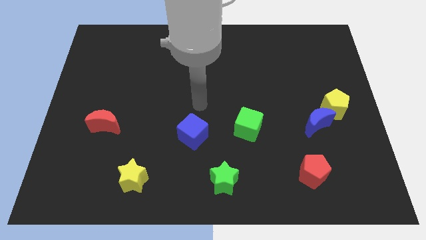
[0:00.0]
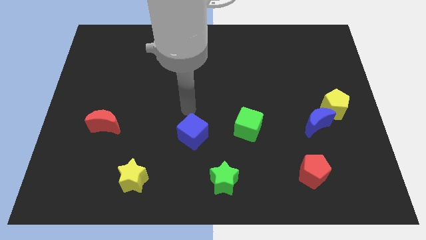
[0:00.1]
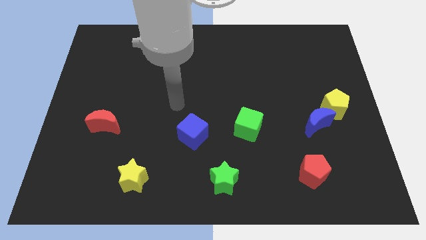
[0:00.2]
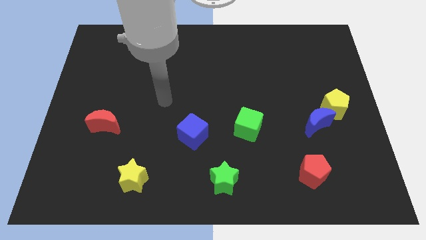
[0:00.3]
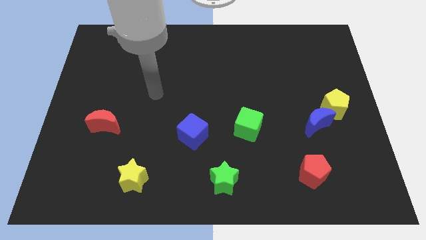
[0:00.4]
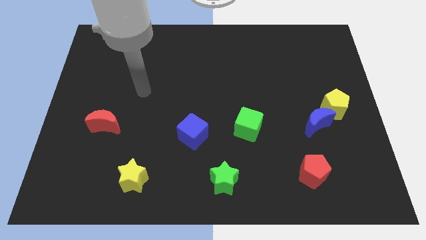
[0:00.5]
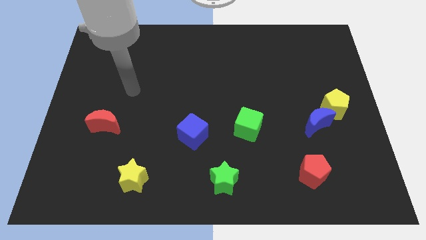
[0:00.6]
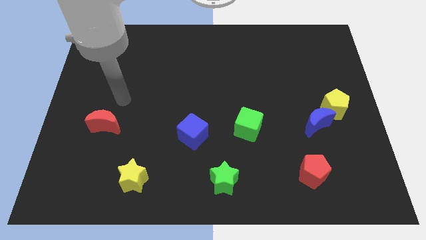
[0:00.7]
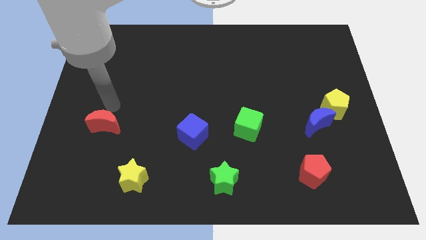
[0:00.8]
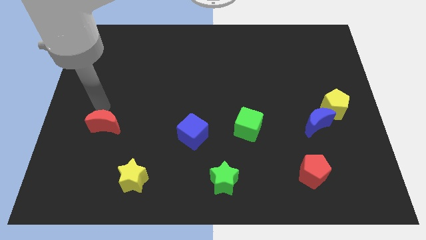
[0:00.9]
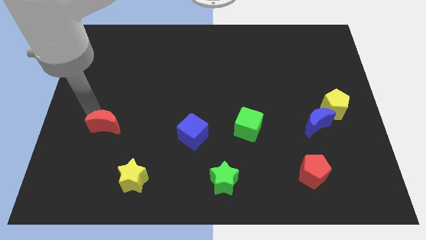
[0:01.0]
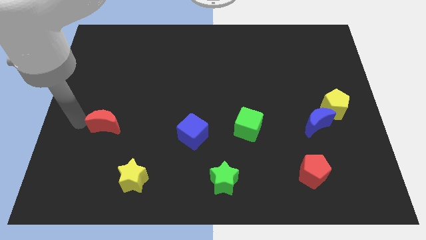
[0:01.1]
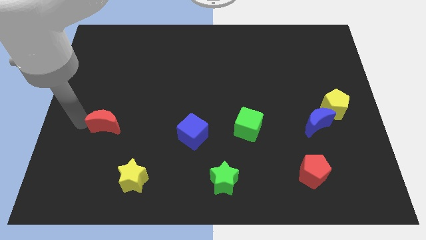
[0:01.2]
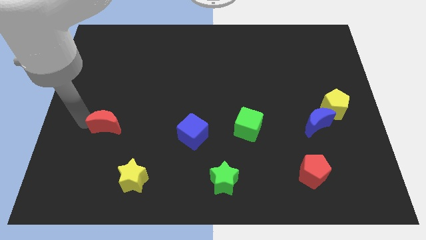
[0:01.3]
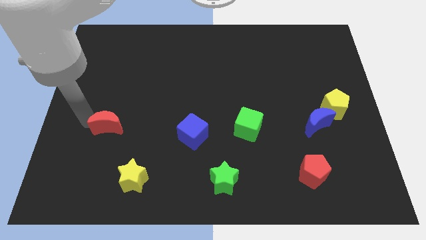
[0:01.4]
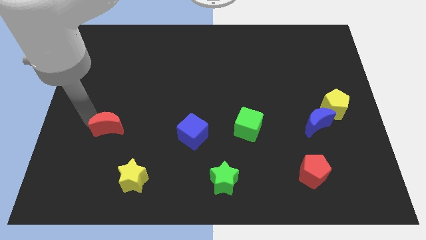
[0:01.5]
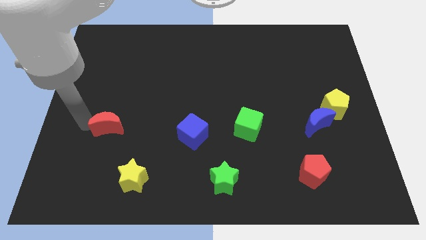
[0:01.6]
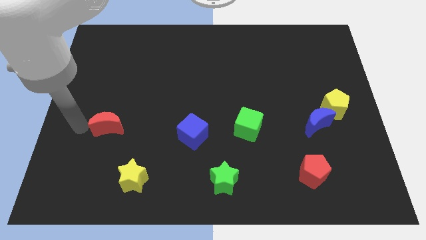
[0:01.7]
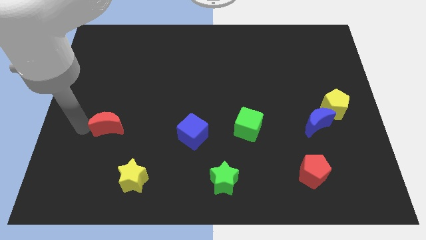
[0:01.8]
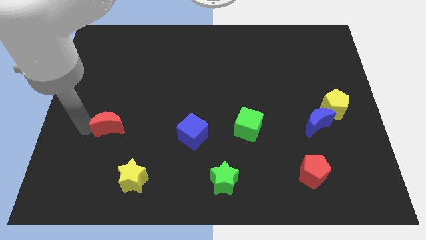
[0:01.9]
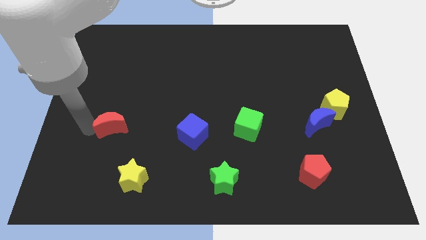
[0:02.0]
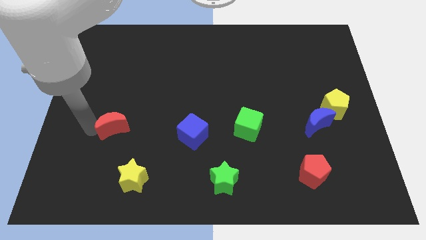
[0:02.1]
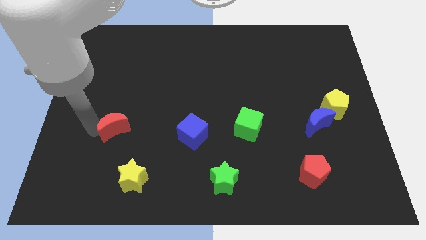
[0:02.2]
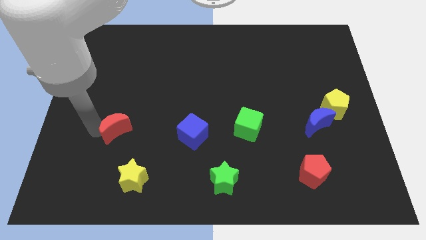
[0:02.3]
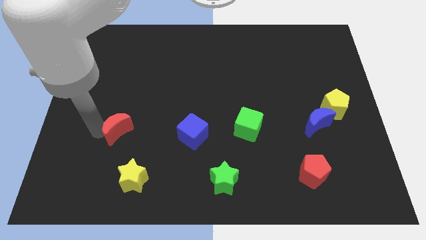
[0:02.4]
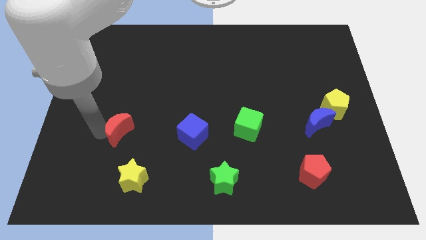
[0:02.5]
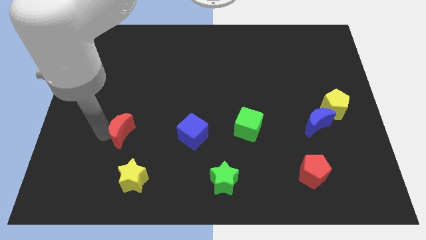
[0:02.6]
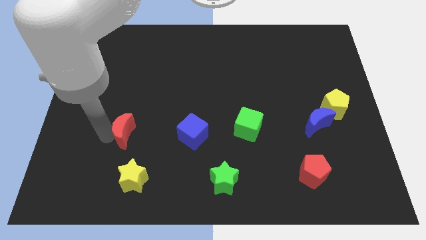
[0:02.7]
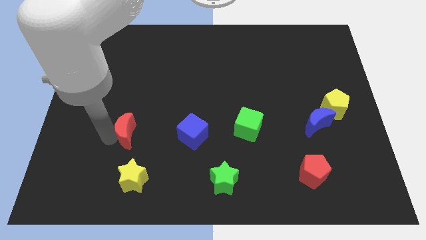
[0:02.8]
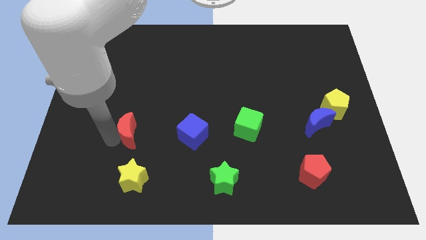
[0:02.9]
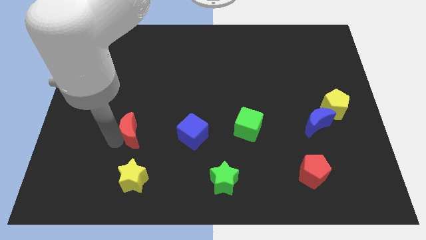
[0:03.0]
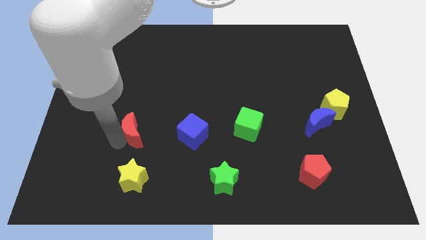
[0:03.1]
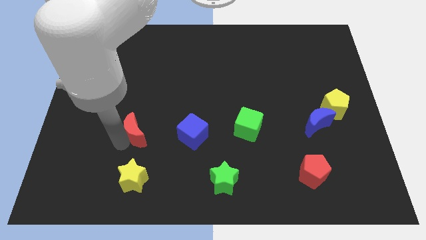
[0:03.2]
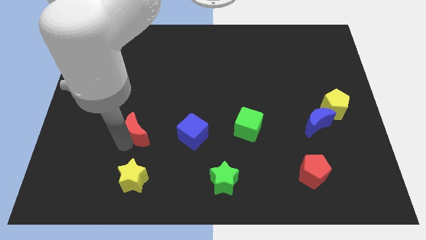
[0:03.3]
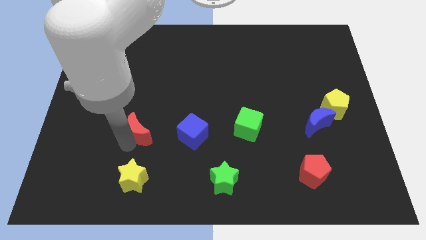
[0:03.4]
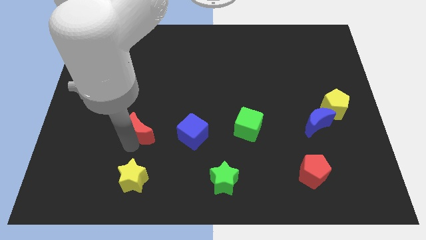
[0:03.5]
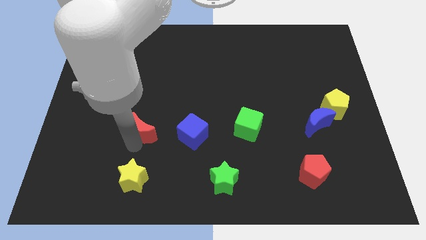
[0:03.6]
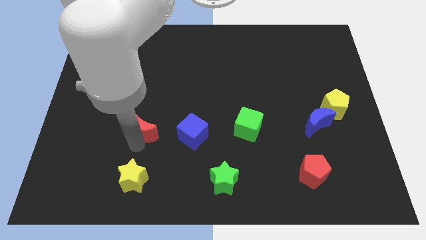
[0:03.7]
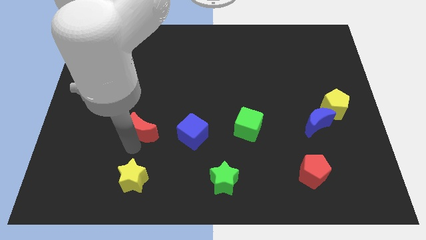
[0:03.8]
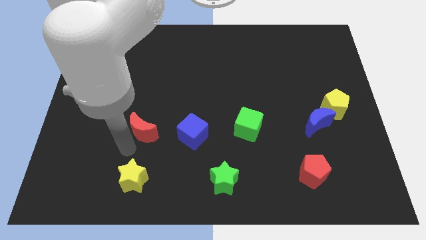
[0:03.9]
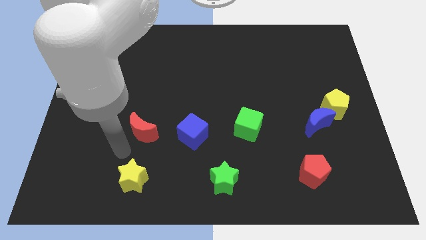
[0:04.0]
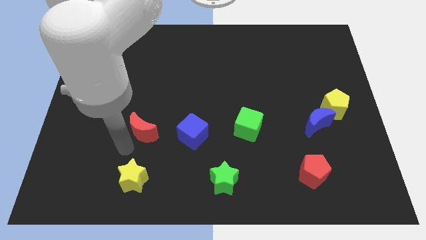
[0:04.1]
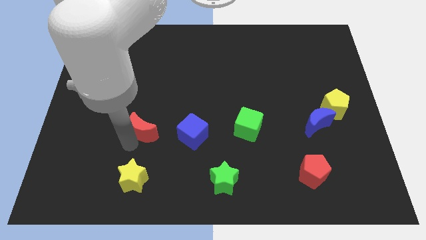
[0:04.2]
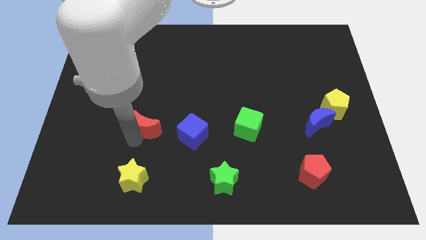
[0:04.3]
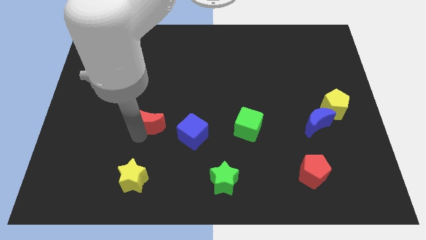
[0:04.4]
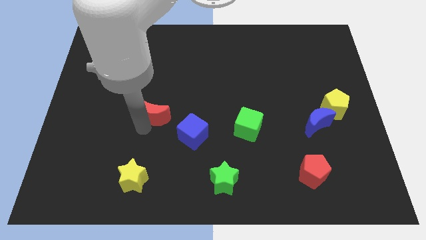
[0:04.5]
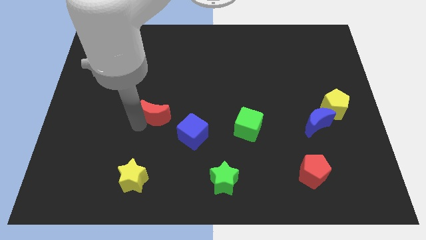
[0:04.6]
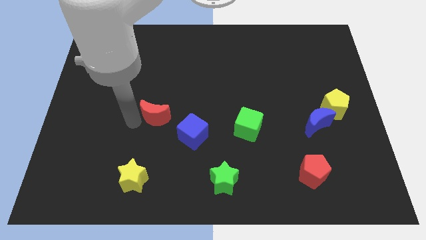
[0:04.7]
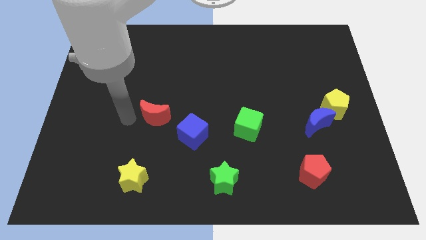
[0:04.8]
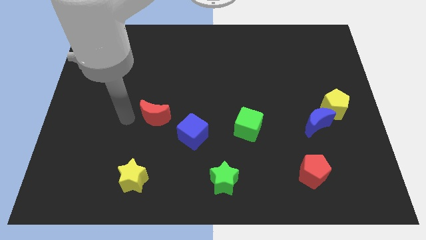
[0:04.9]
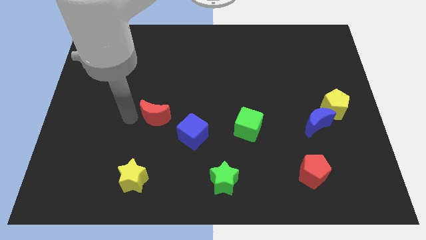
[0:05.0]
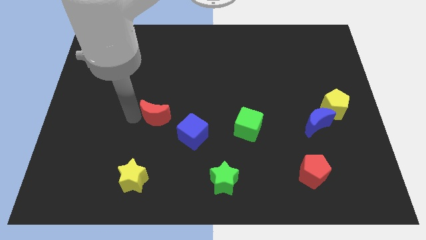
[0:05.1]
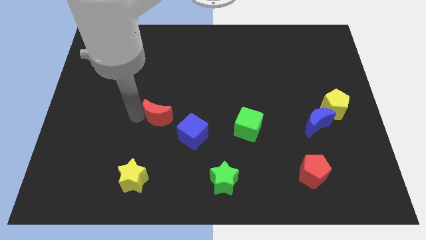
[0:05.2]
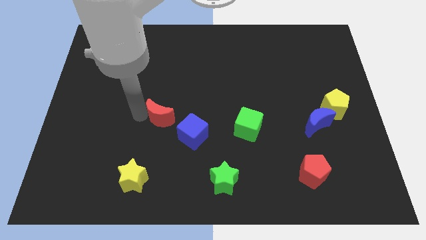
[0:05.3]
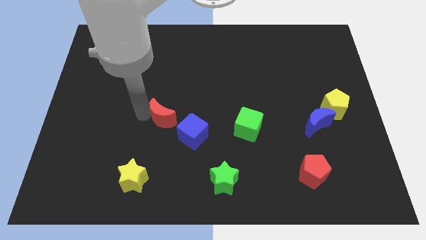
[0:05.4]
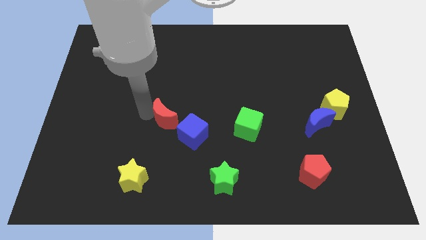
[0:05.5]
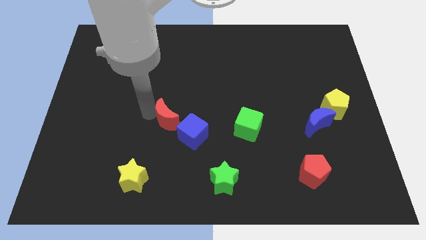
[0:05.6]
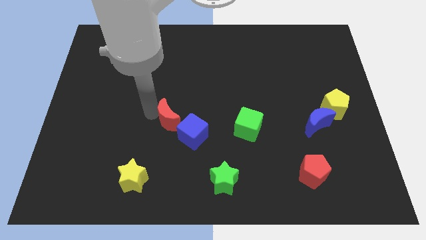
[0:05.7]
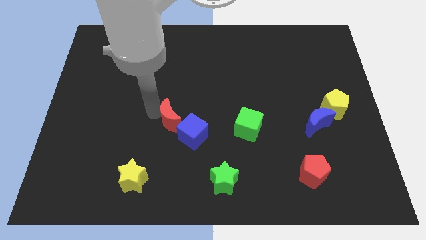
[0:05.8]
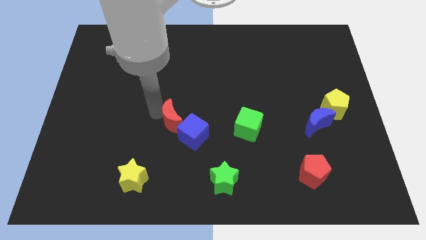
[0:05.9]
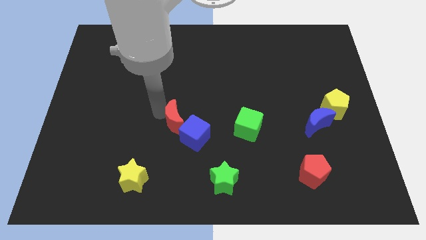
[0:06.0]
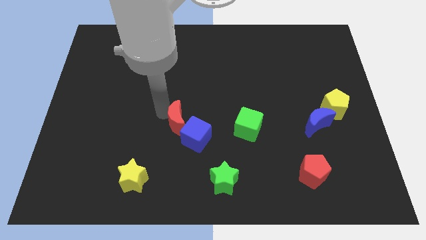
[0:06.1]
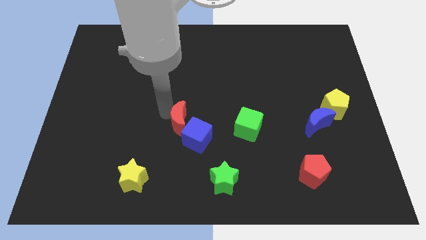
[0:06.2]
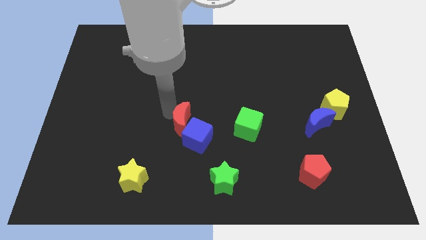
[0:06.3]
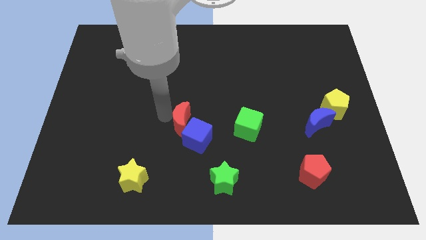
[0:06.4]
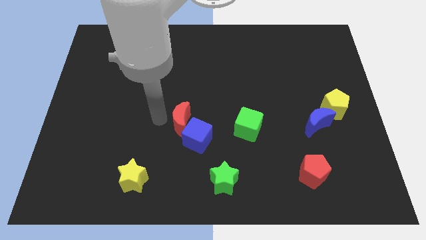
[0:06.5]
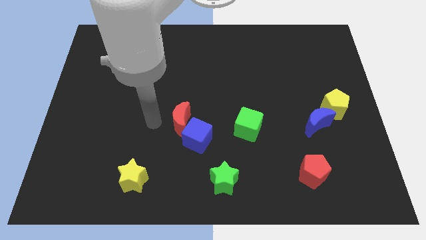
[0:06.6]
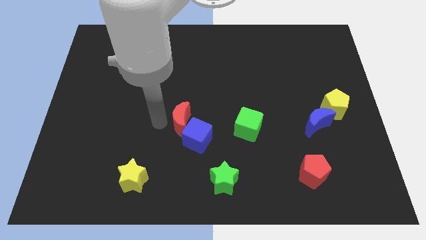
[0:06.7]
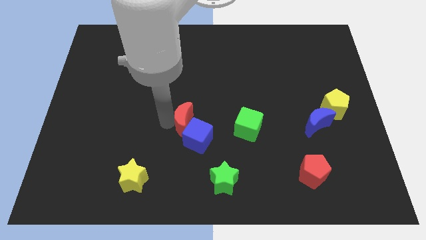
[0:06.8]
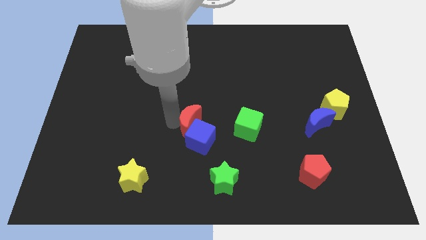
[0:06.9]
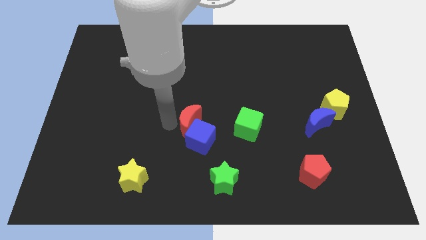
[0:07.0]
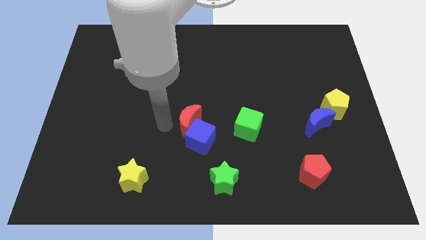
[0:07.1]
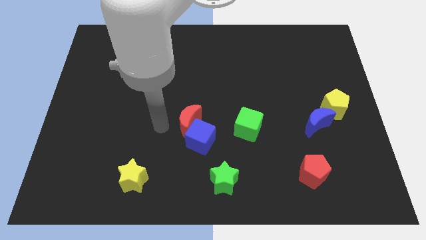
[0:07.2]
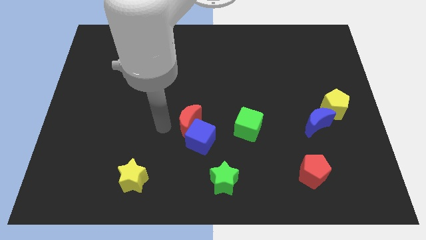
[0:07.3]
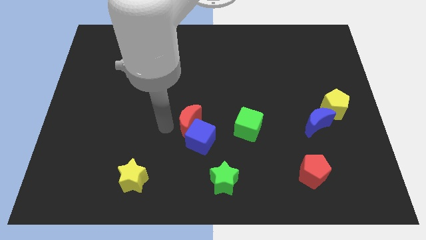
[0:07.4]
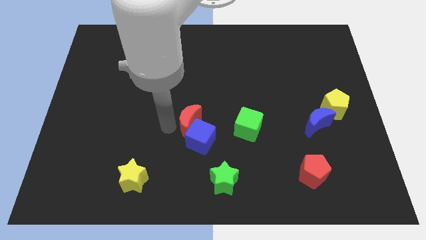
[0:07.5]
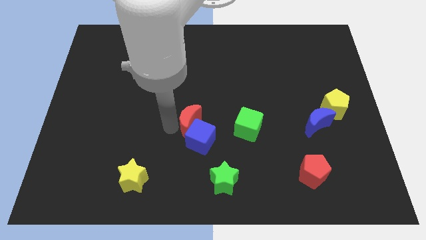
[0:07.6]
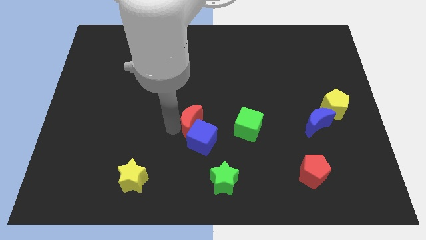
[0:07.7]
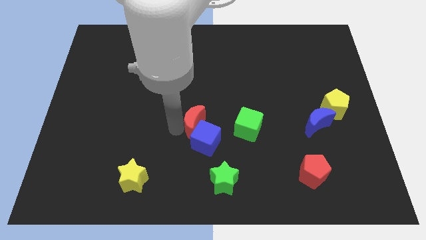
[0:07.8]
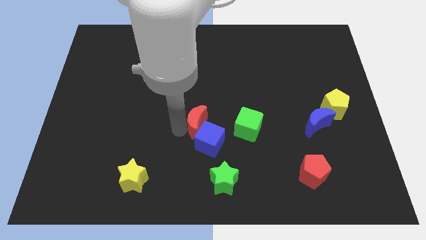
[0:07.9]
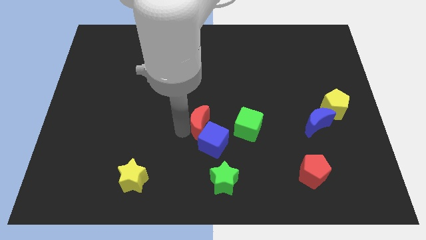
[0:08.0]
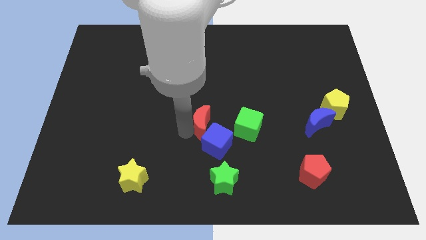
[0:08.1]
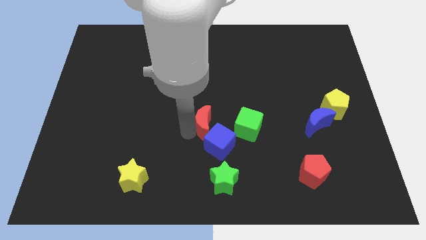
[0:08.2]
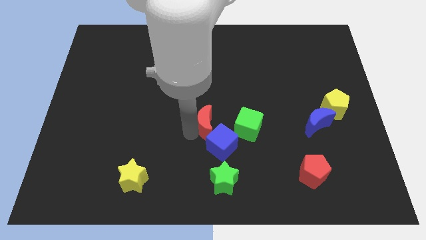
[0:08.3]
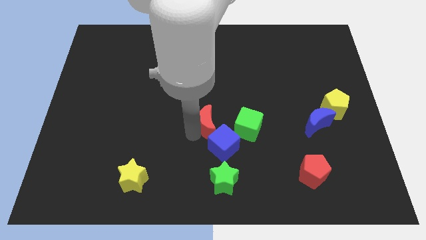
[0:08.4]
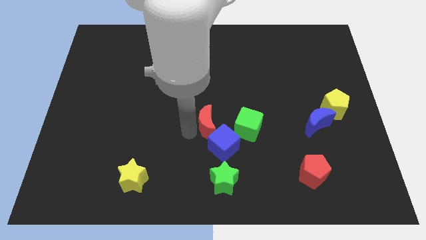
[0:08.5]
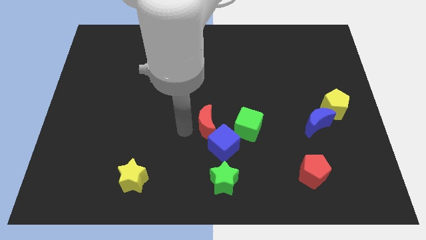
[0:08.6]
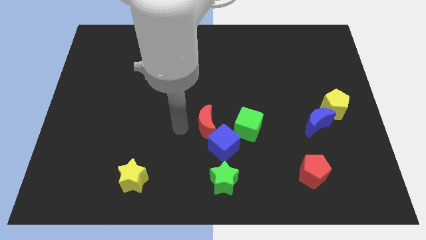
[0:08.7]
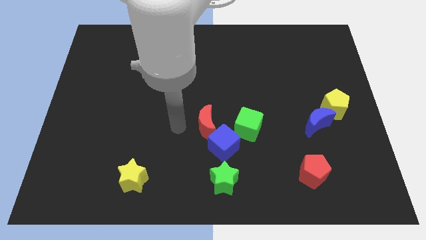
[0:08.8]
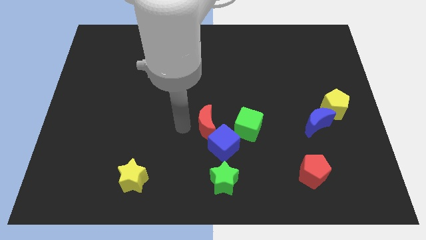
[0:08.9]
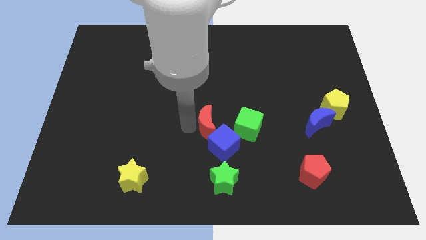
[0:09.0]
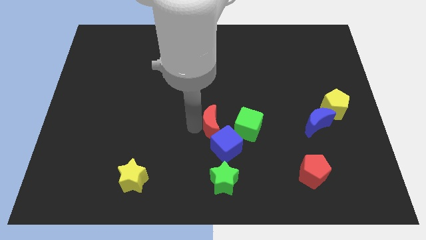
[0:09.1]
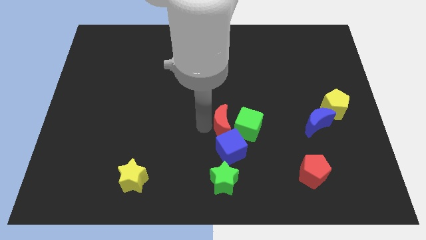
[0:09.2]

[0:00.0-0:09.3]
move the red moon next to the green cube
